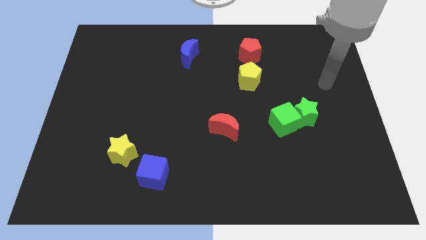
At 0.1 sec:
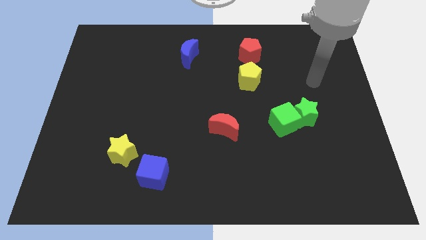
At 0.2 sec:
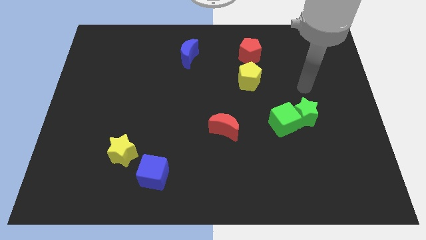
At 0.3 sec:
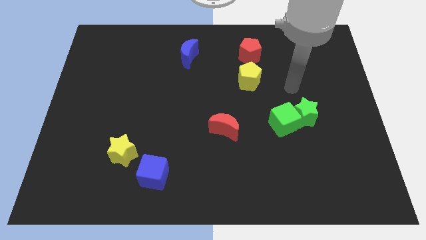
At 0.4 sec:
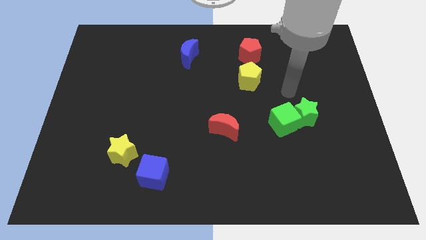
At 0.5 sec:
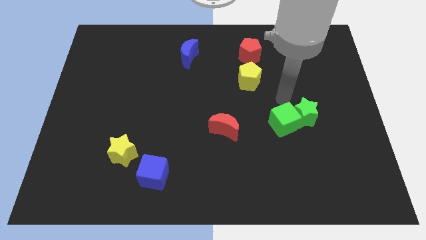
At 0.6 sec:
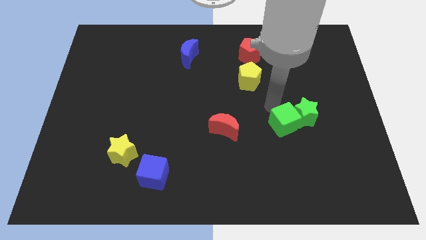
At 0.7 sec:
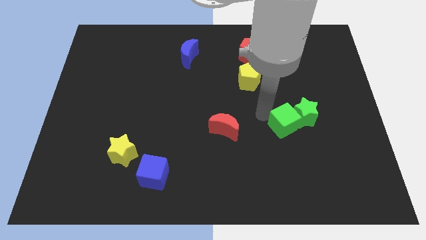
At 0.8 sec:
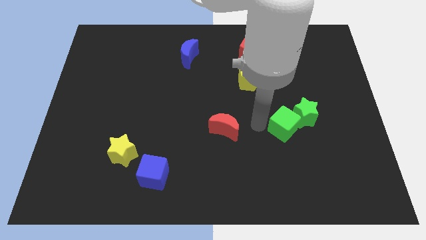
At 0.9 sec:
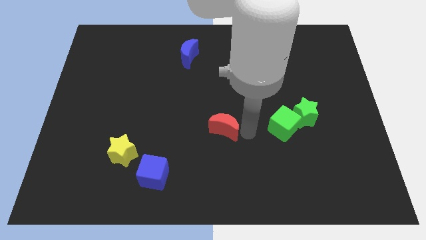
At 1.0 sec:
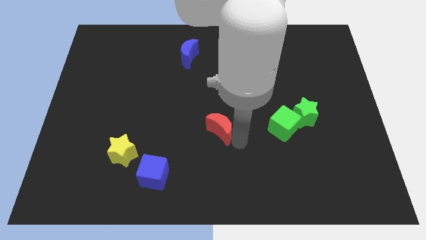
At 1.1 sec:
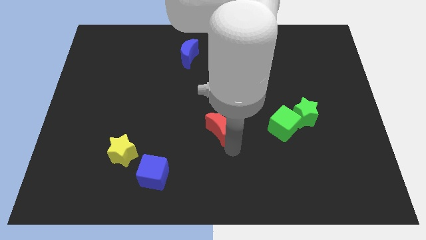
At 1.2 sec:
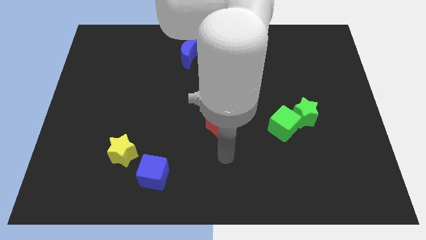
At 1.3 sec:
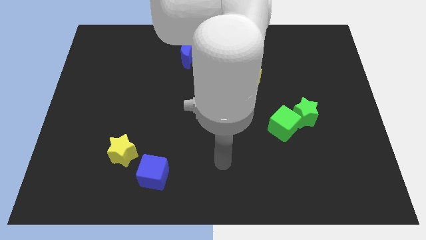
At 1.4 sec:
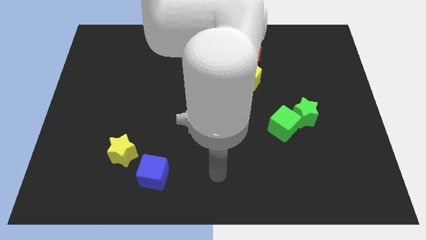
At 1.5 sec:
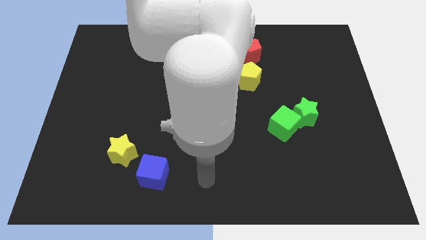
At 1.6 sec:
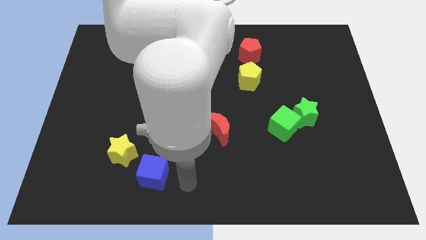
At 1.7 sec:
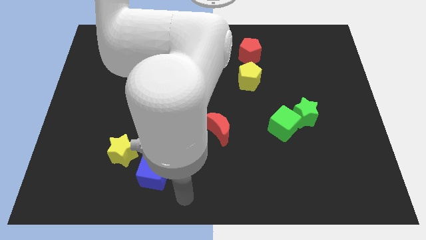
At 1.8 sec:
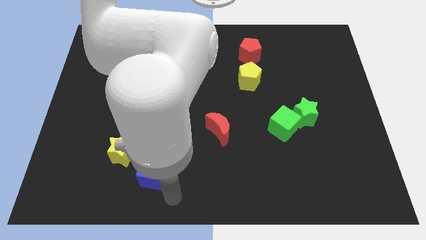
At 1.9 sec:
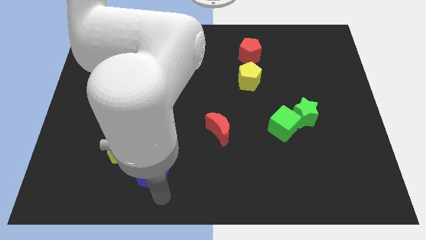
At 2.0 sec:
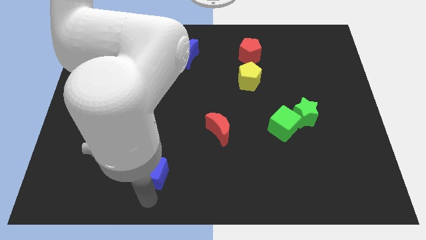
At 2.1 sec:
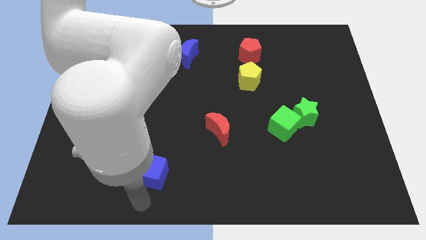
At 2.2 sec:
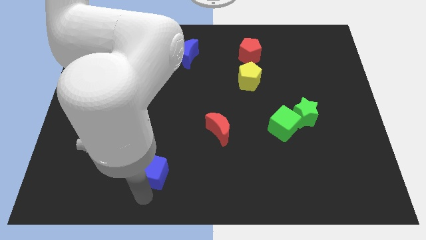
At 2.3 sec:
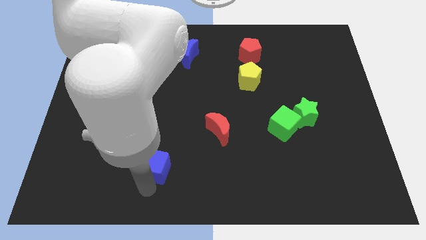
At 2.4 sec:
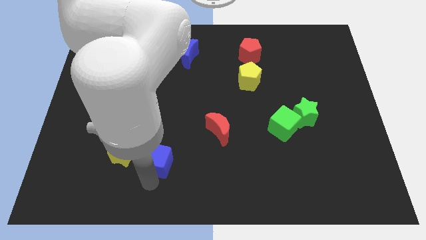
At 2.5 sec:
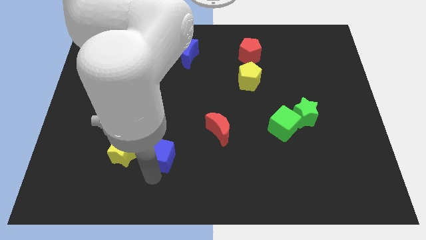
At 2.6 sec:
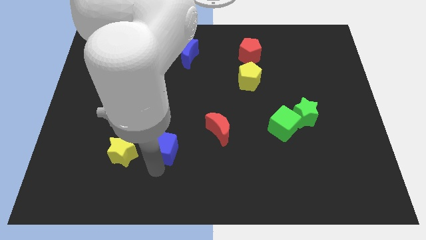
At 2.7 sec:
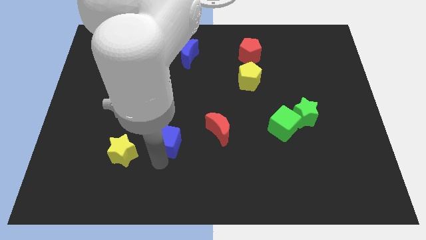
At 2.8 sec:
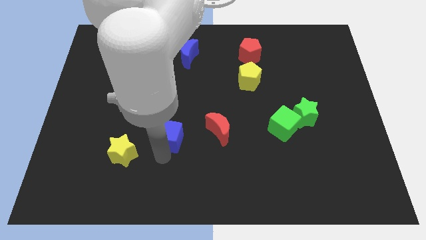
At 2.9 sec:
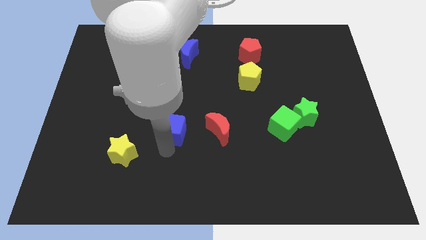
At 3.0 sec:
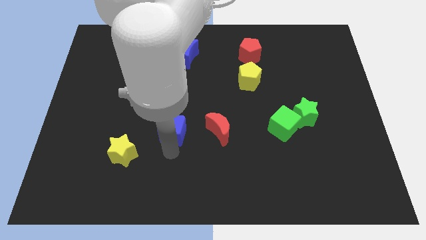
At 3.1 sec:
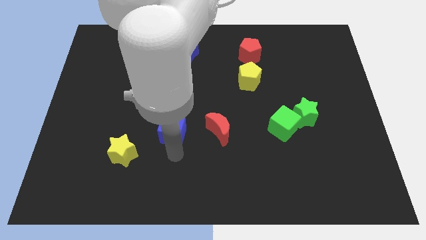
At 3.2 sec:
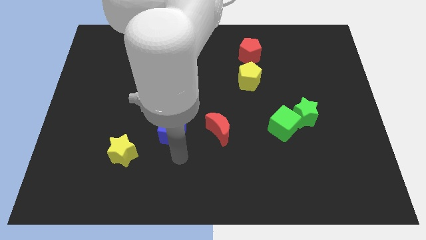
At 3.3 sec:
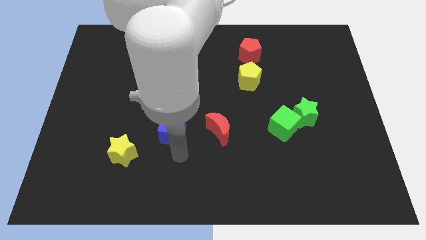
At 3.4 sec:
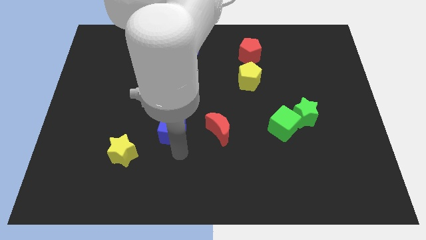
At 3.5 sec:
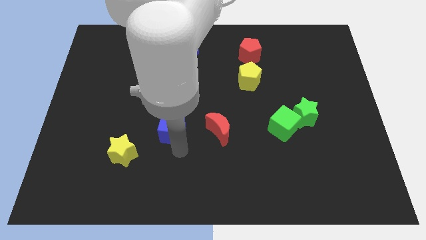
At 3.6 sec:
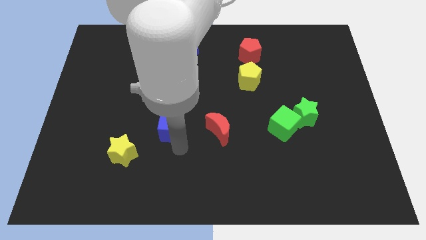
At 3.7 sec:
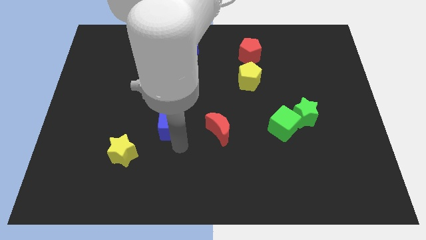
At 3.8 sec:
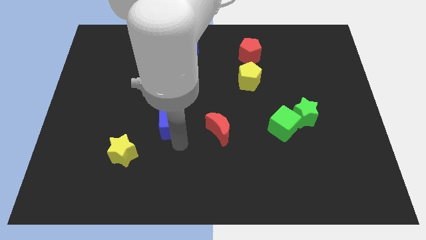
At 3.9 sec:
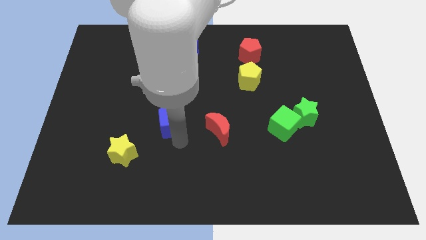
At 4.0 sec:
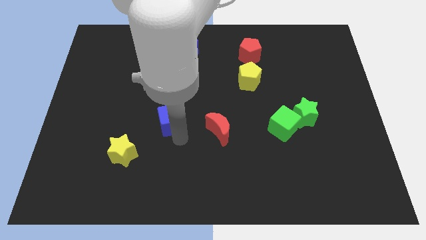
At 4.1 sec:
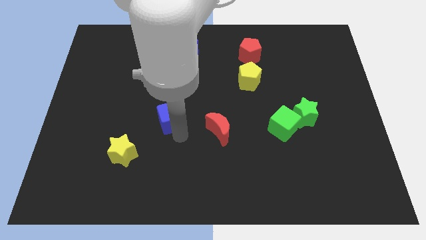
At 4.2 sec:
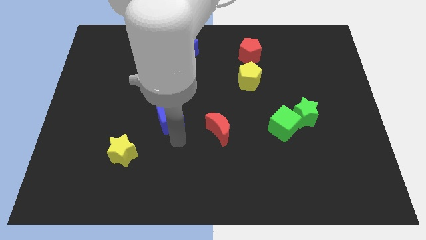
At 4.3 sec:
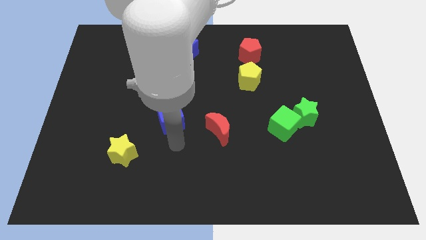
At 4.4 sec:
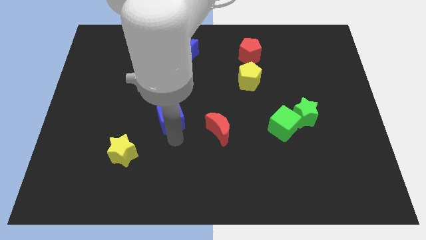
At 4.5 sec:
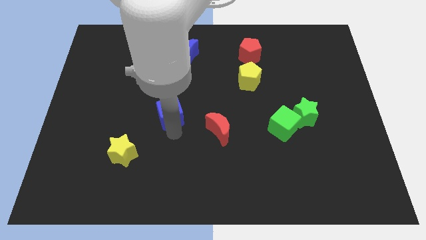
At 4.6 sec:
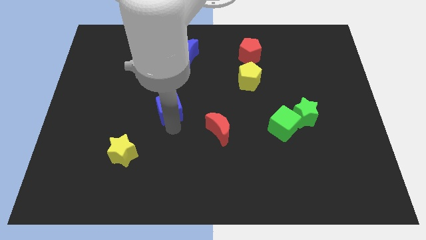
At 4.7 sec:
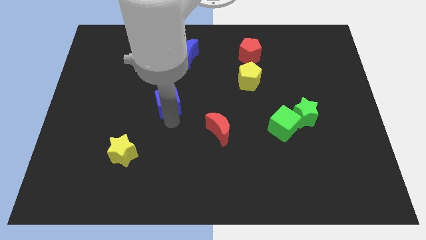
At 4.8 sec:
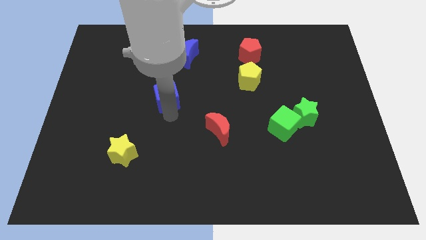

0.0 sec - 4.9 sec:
move the blue cube upwards

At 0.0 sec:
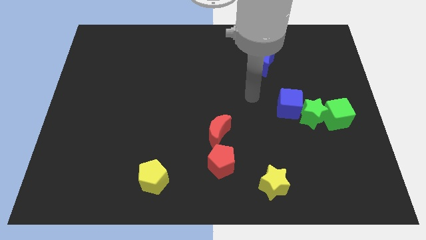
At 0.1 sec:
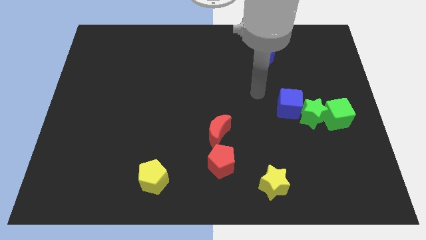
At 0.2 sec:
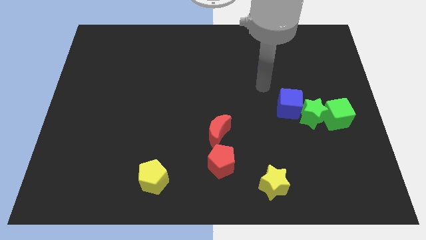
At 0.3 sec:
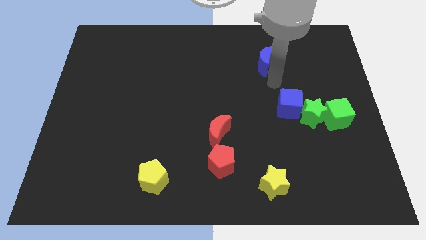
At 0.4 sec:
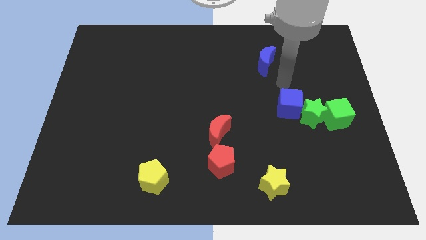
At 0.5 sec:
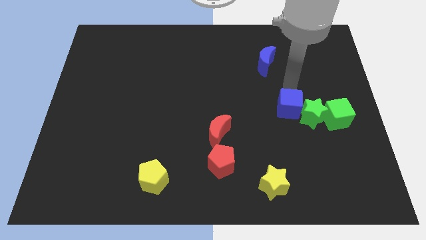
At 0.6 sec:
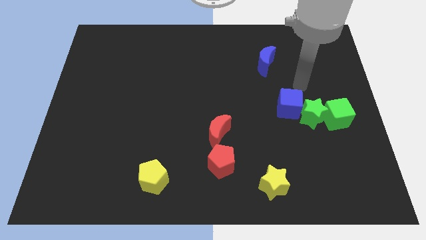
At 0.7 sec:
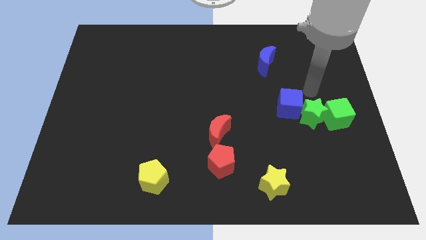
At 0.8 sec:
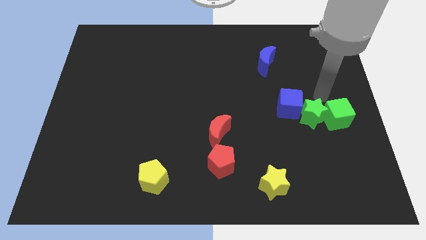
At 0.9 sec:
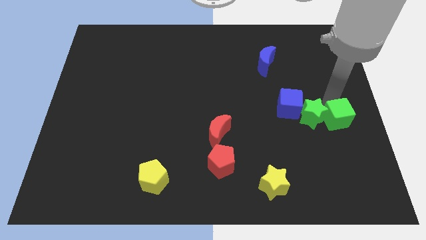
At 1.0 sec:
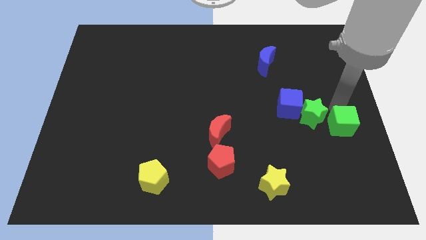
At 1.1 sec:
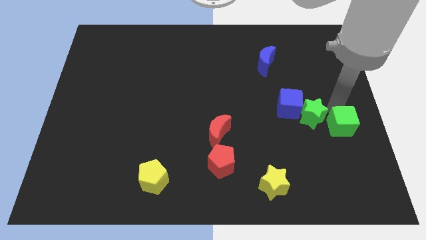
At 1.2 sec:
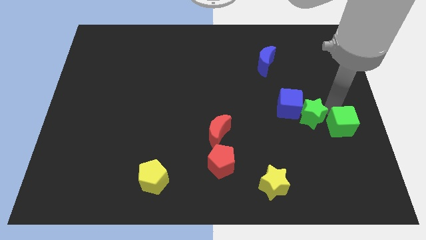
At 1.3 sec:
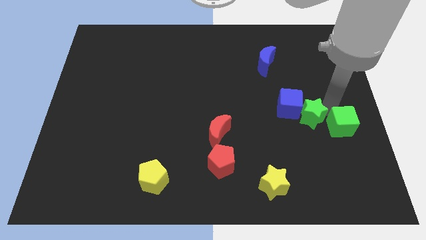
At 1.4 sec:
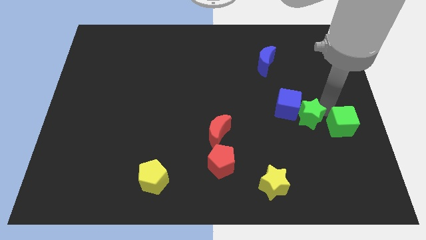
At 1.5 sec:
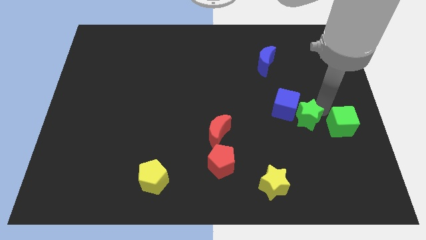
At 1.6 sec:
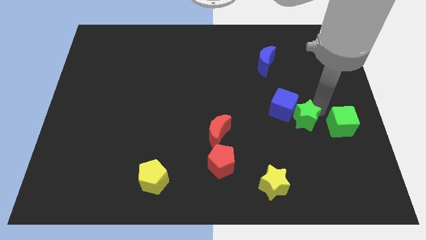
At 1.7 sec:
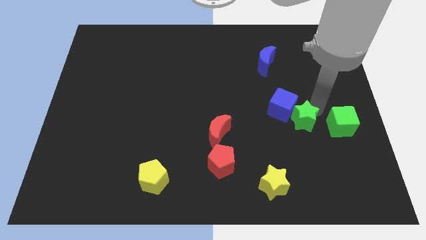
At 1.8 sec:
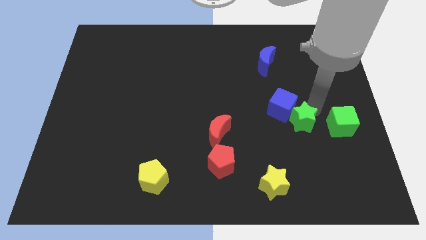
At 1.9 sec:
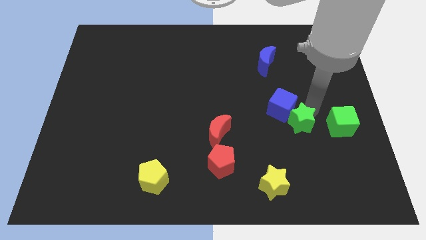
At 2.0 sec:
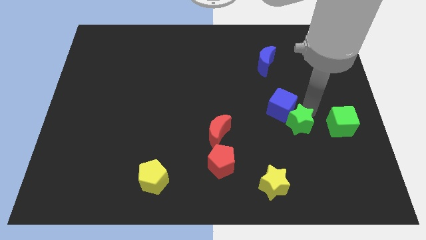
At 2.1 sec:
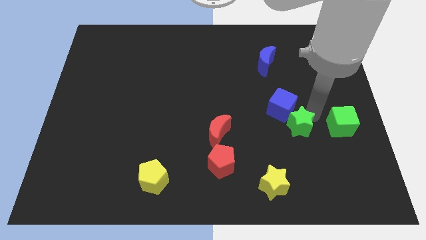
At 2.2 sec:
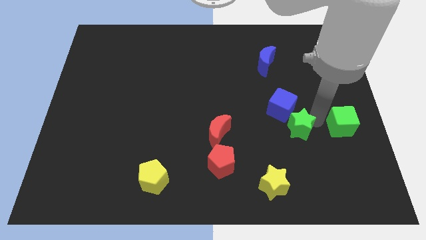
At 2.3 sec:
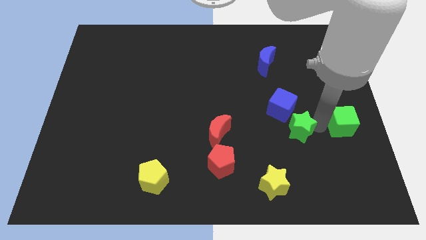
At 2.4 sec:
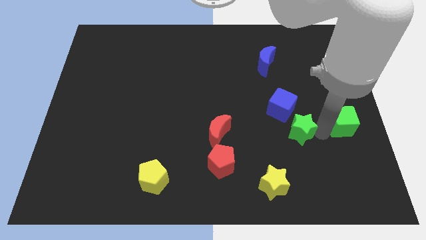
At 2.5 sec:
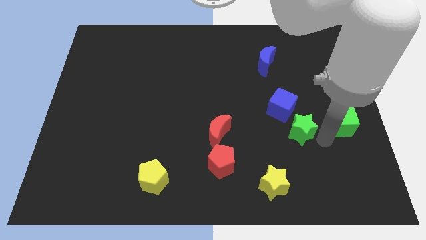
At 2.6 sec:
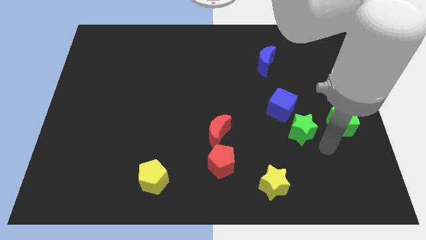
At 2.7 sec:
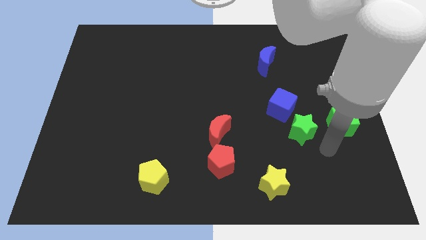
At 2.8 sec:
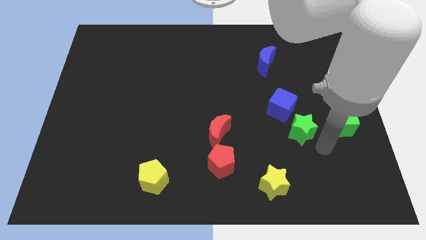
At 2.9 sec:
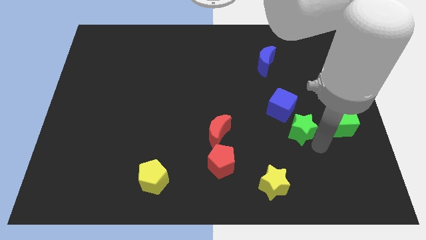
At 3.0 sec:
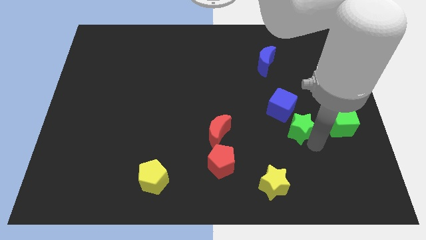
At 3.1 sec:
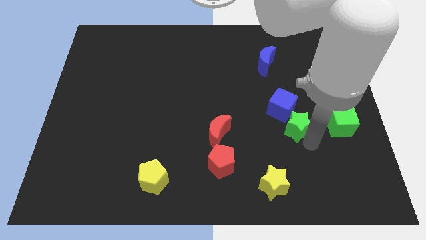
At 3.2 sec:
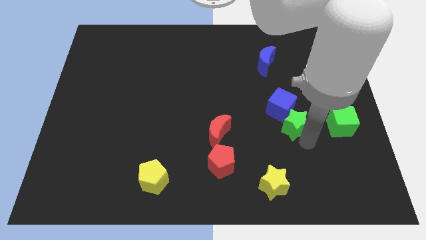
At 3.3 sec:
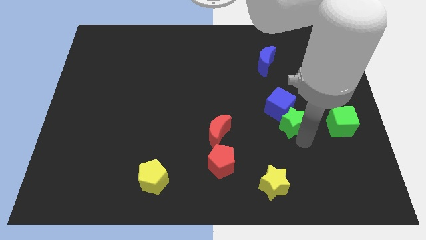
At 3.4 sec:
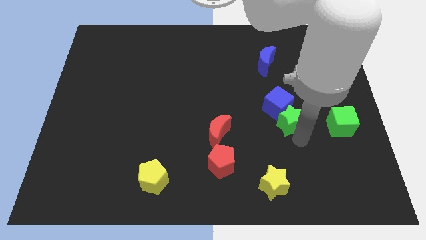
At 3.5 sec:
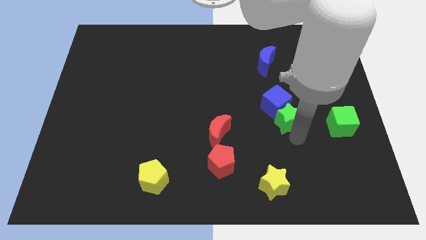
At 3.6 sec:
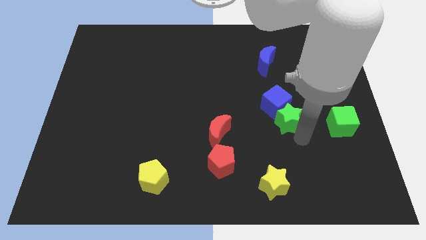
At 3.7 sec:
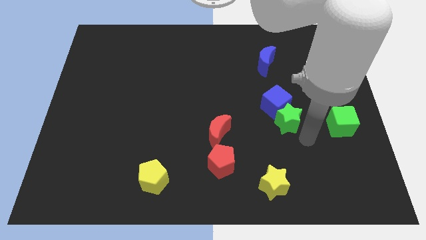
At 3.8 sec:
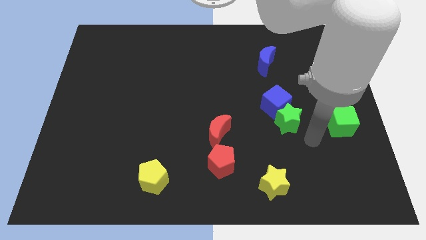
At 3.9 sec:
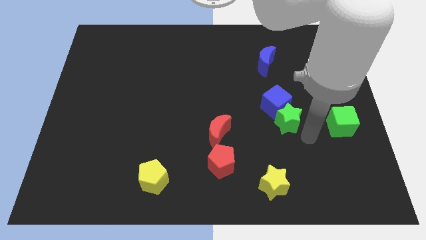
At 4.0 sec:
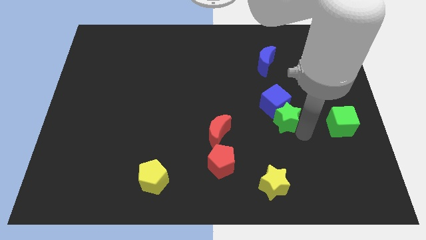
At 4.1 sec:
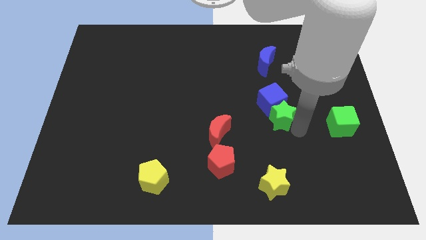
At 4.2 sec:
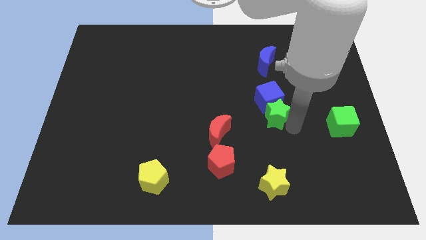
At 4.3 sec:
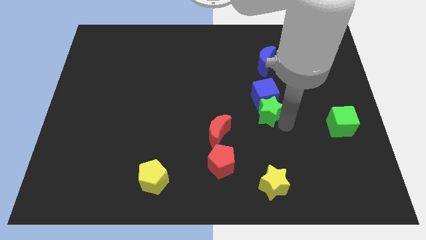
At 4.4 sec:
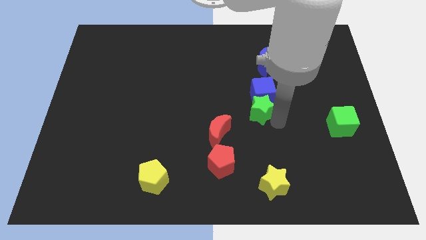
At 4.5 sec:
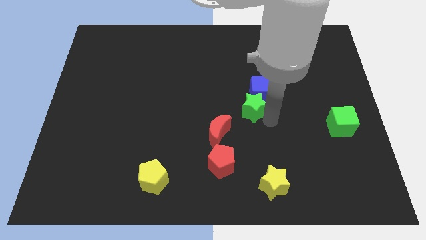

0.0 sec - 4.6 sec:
push the green star upwards and to the left a little bit
